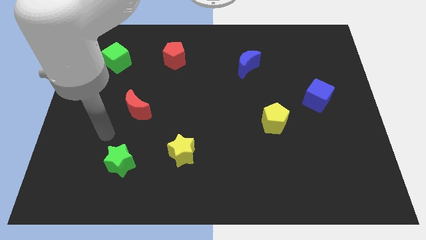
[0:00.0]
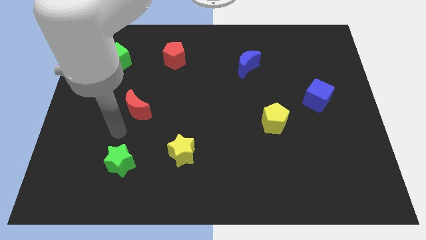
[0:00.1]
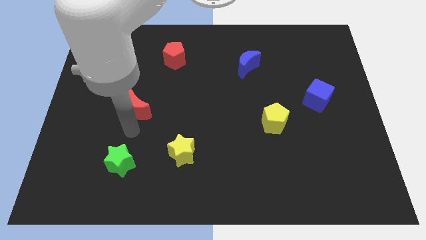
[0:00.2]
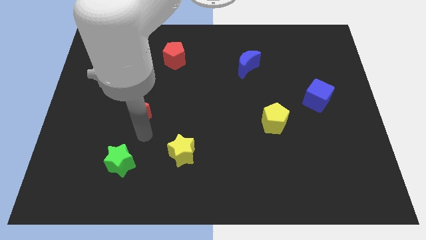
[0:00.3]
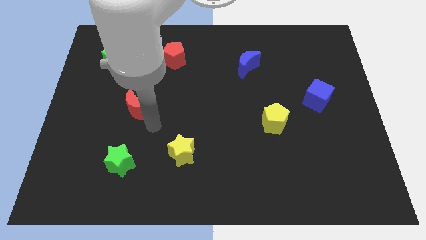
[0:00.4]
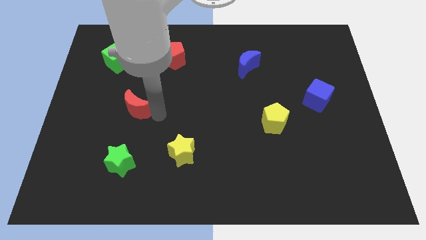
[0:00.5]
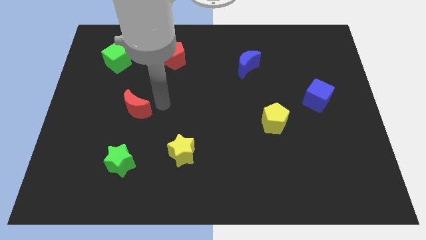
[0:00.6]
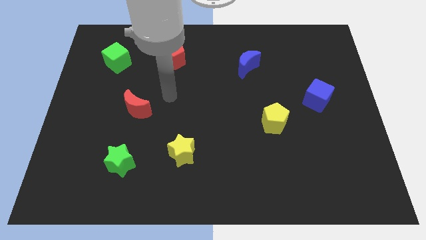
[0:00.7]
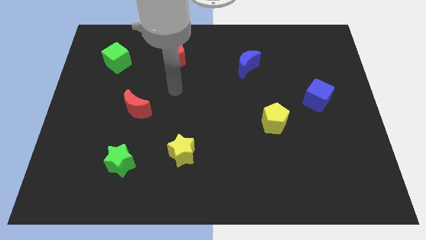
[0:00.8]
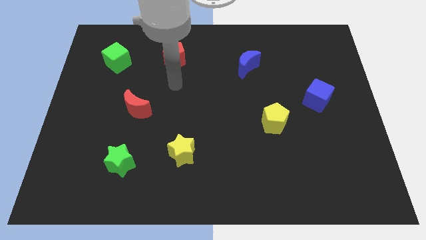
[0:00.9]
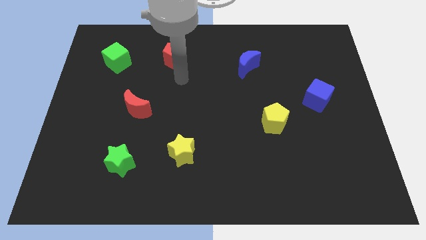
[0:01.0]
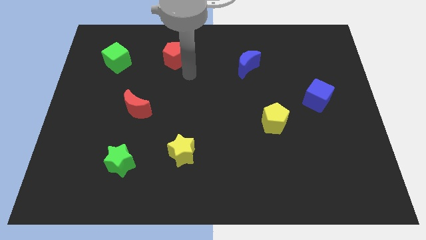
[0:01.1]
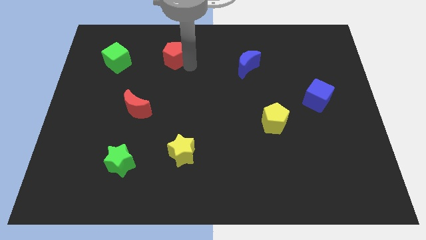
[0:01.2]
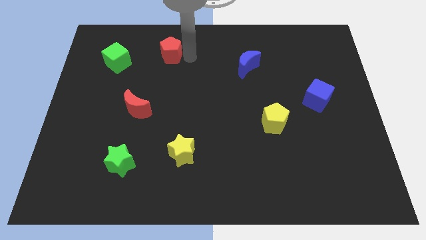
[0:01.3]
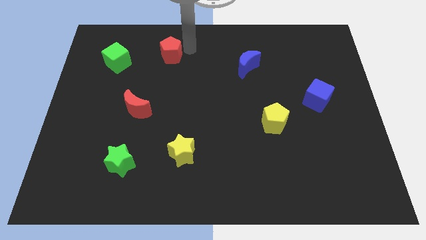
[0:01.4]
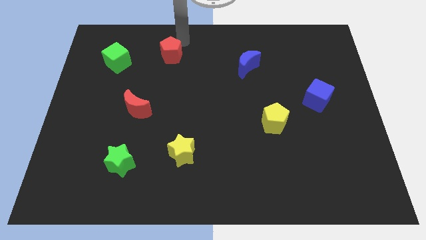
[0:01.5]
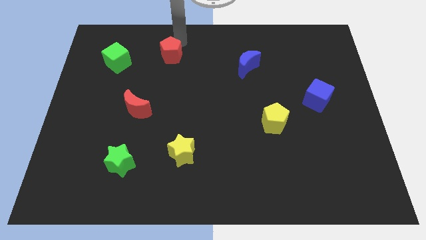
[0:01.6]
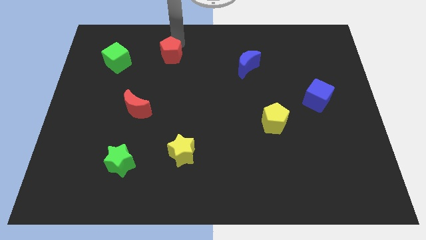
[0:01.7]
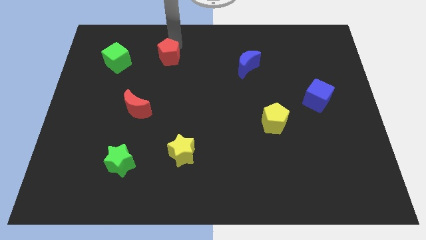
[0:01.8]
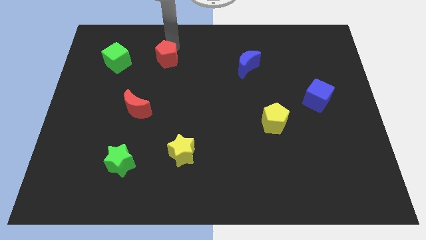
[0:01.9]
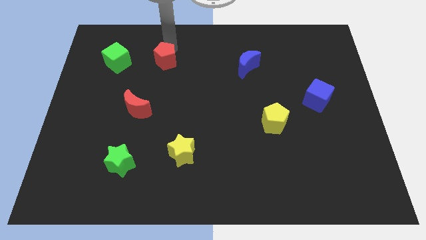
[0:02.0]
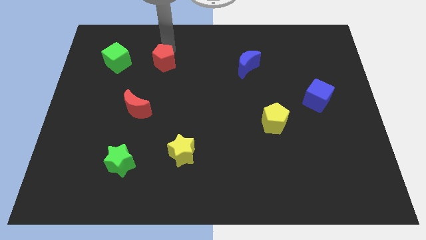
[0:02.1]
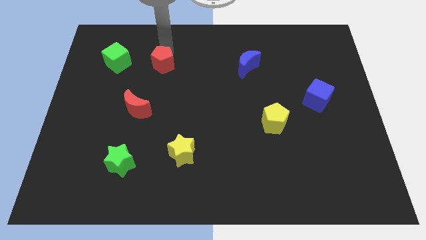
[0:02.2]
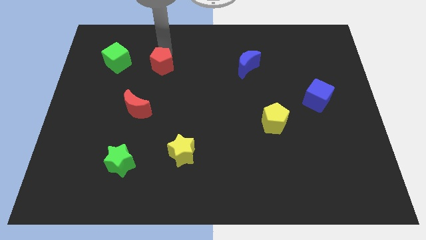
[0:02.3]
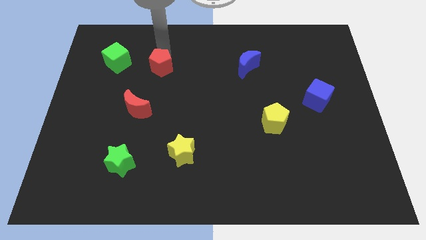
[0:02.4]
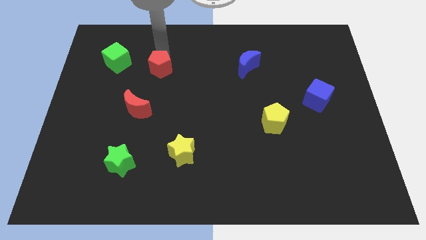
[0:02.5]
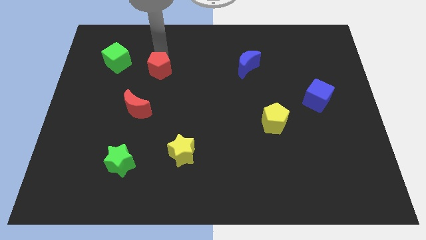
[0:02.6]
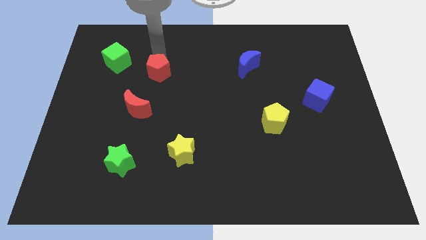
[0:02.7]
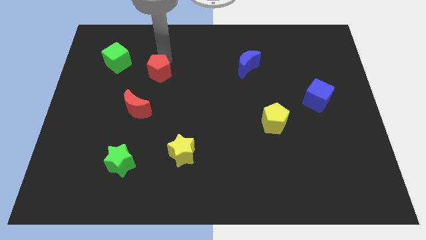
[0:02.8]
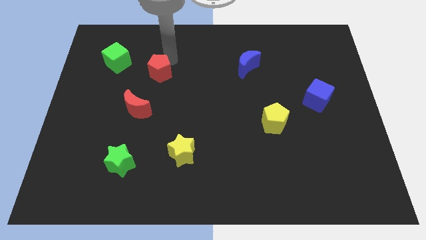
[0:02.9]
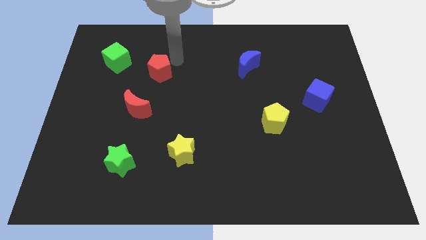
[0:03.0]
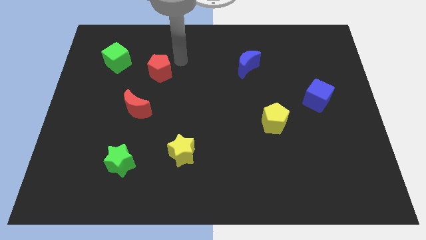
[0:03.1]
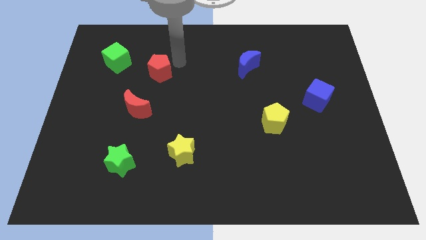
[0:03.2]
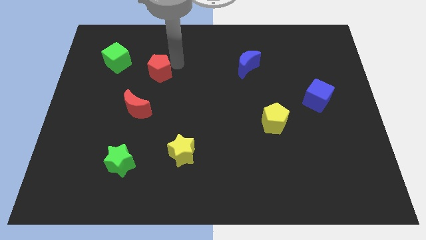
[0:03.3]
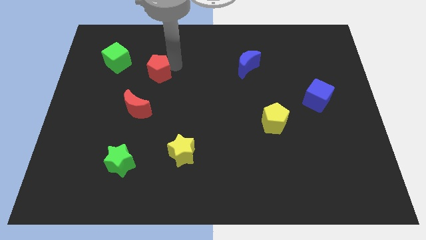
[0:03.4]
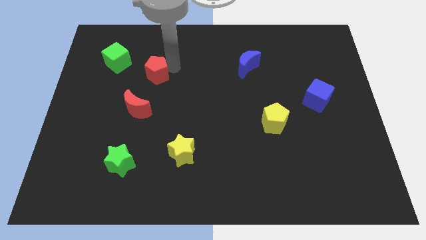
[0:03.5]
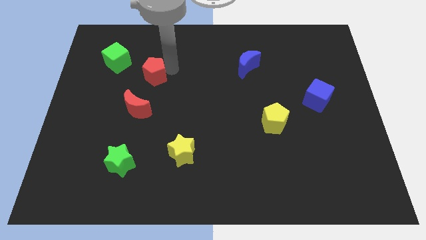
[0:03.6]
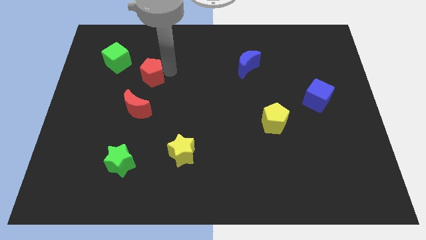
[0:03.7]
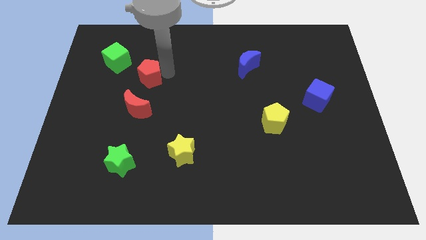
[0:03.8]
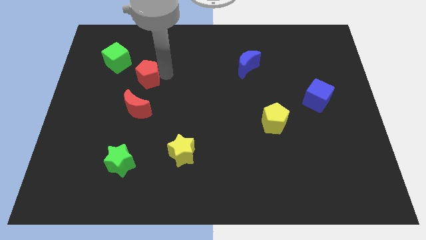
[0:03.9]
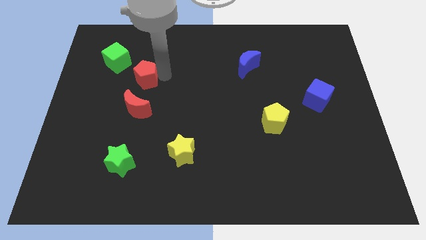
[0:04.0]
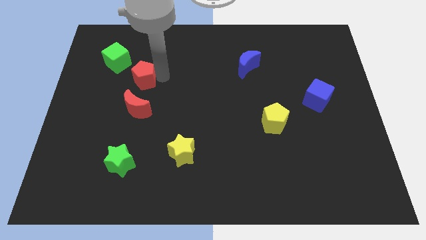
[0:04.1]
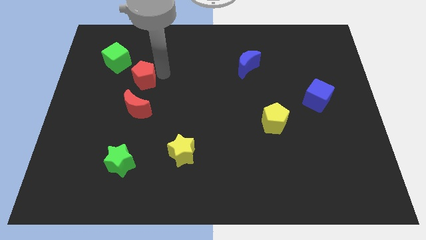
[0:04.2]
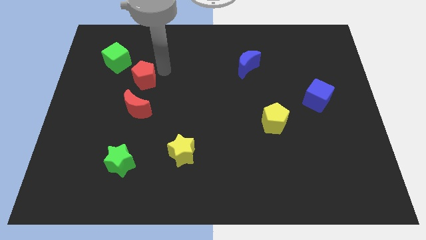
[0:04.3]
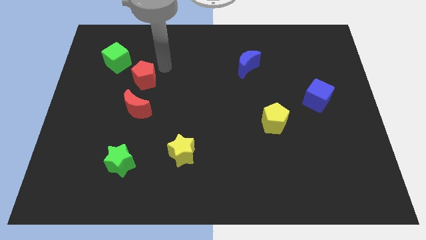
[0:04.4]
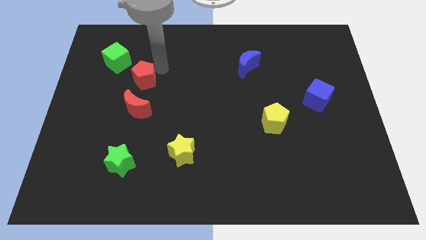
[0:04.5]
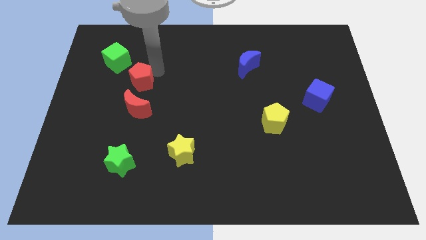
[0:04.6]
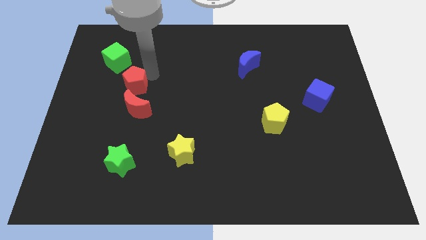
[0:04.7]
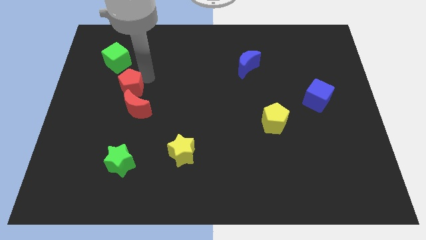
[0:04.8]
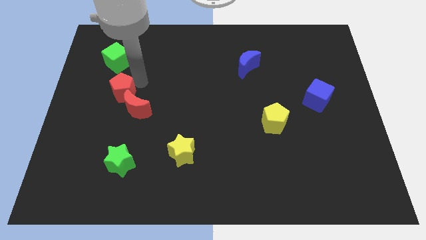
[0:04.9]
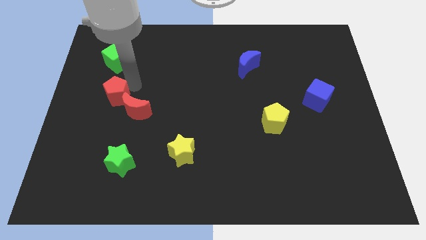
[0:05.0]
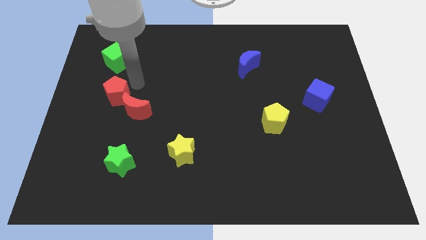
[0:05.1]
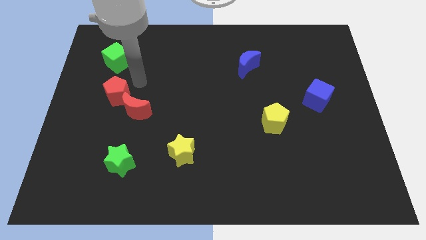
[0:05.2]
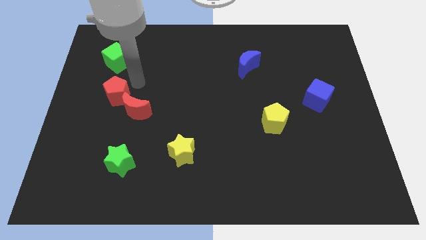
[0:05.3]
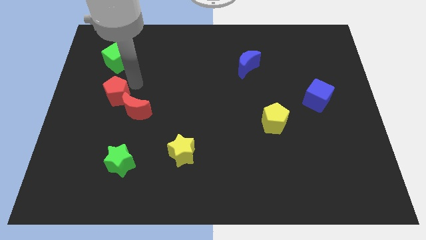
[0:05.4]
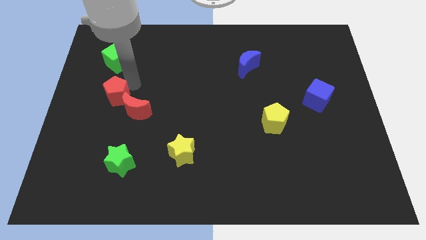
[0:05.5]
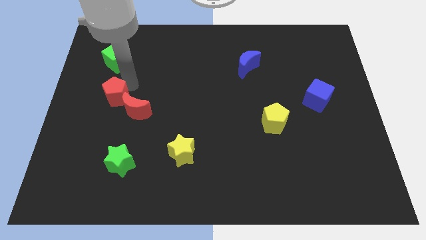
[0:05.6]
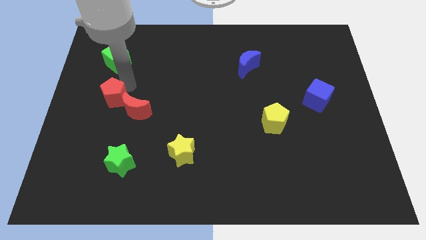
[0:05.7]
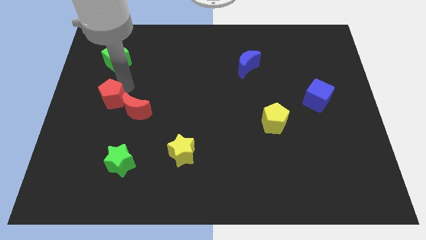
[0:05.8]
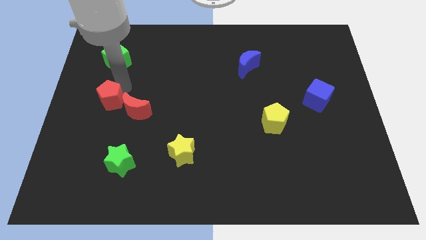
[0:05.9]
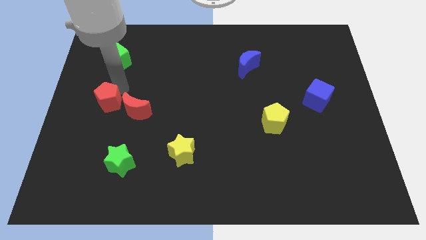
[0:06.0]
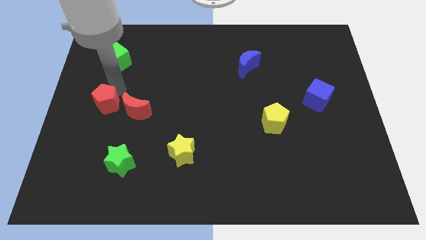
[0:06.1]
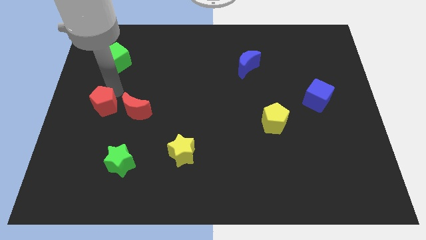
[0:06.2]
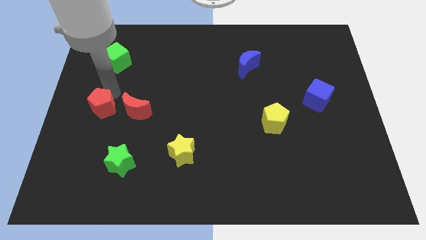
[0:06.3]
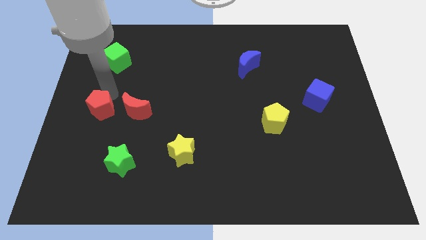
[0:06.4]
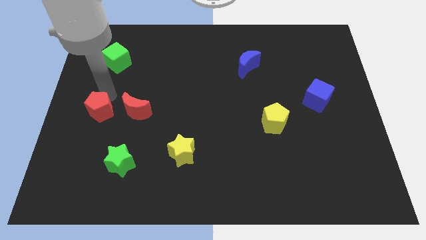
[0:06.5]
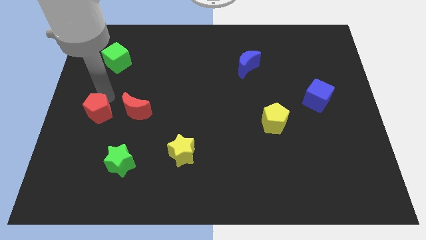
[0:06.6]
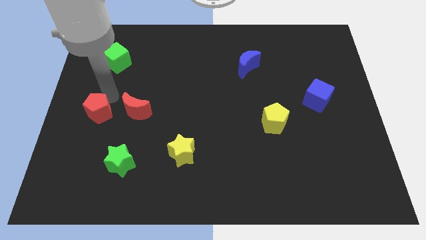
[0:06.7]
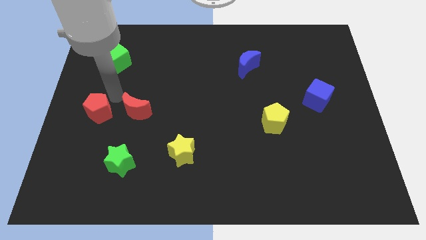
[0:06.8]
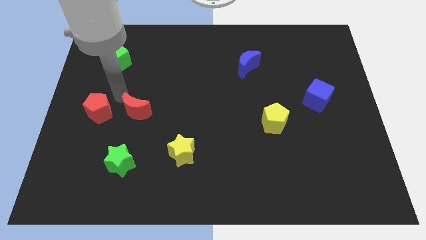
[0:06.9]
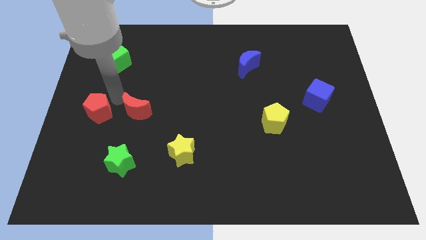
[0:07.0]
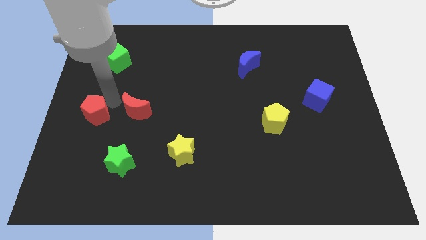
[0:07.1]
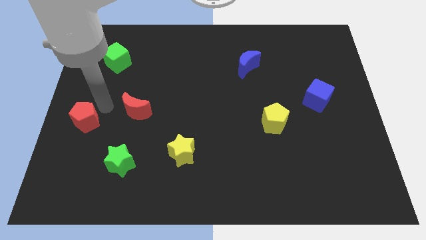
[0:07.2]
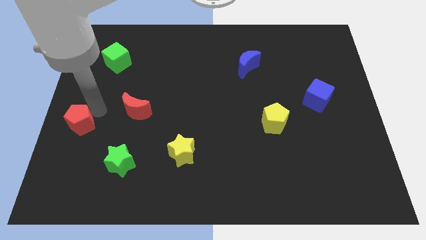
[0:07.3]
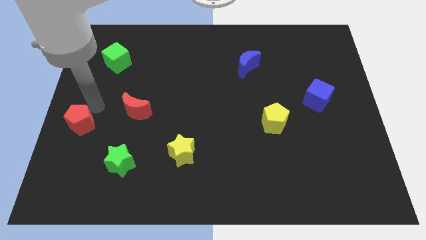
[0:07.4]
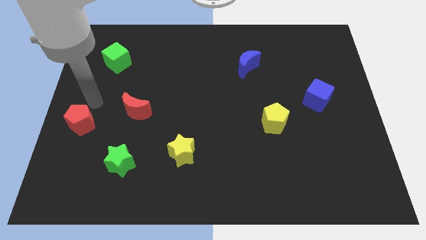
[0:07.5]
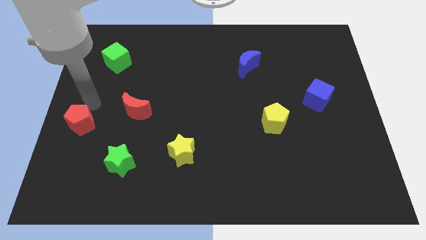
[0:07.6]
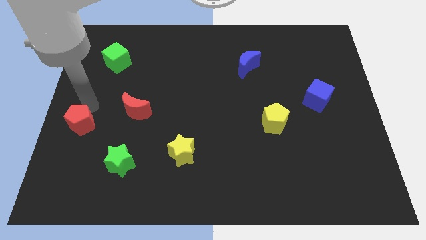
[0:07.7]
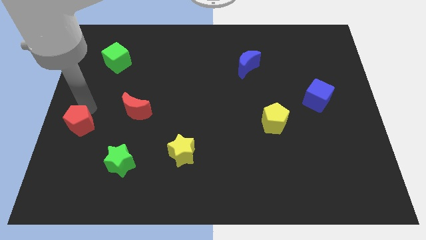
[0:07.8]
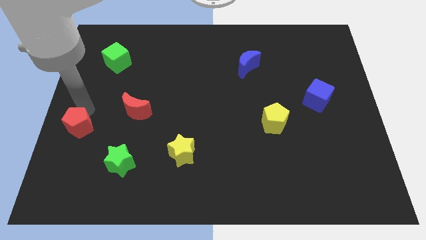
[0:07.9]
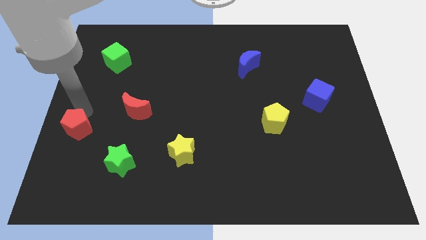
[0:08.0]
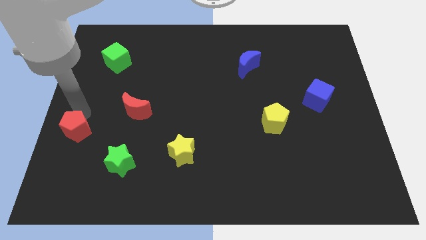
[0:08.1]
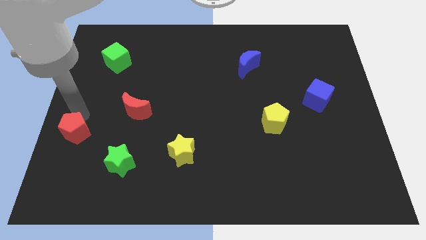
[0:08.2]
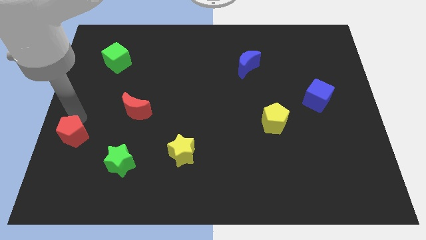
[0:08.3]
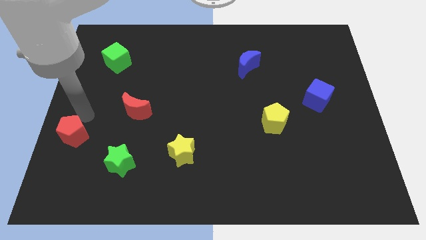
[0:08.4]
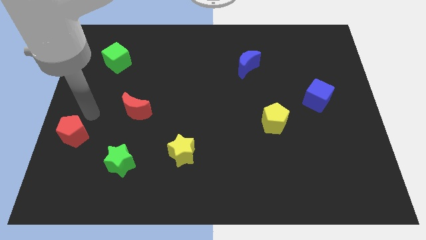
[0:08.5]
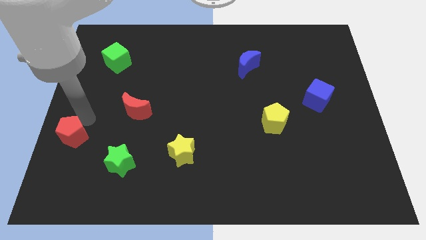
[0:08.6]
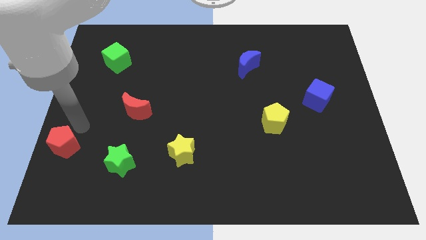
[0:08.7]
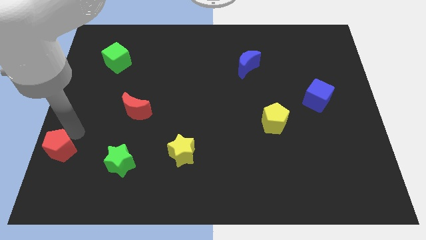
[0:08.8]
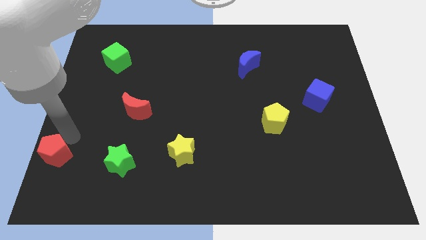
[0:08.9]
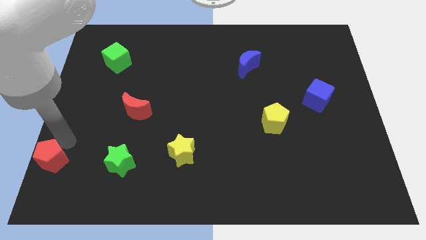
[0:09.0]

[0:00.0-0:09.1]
slide the red pentagon to the bottom left of the board
